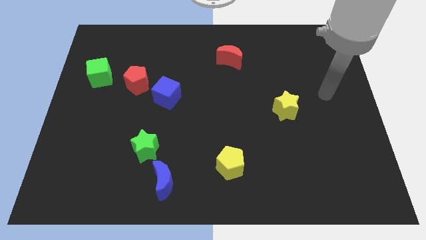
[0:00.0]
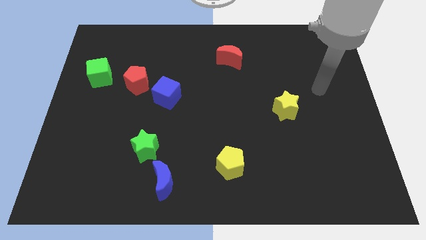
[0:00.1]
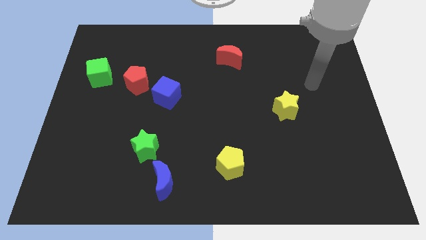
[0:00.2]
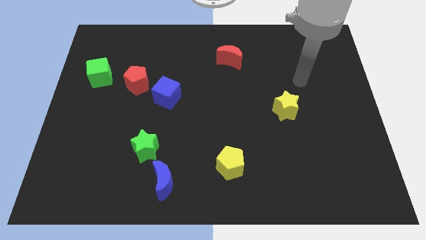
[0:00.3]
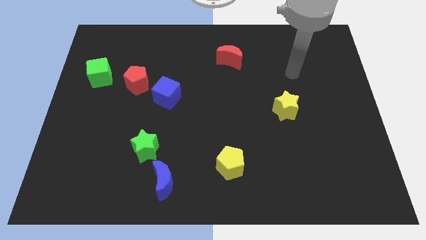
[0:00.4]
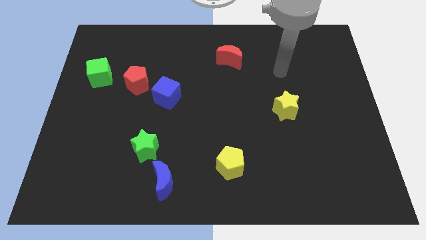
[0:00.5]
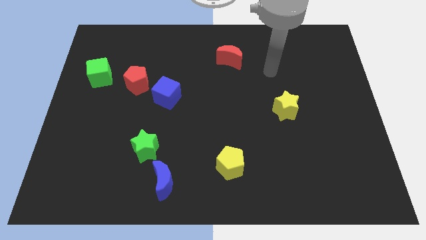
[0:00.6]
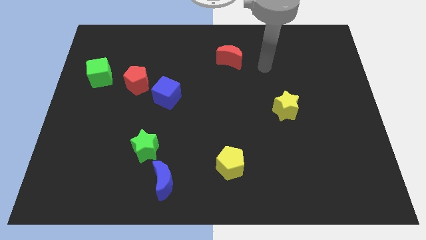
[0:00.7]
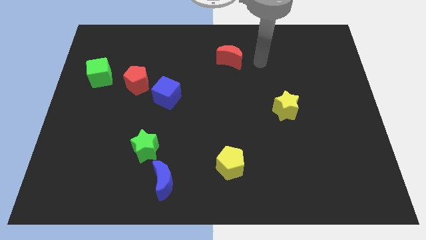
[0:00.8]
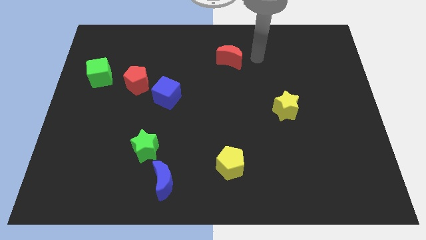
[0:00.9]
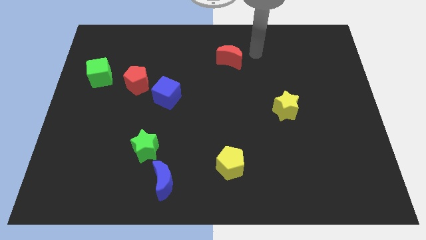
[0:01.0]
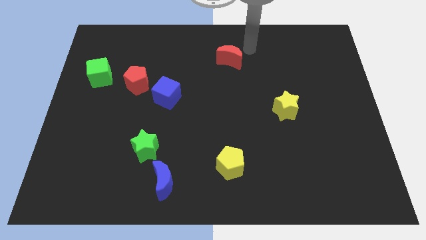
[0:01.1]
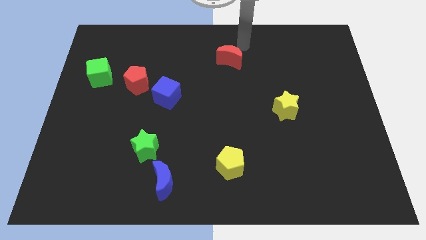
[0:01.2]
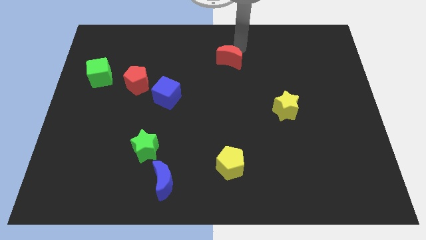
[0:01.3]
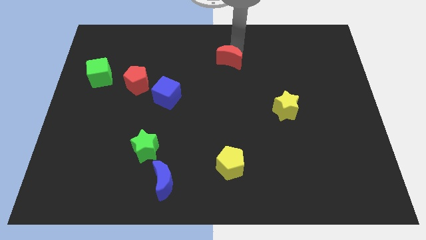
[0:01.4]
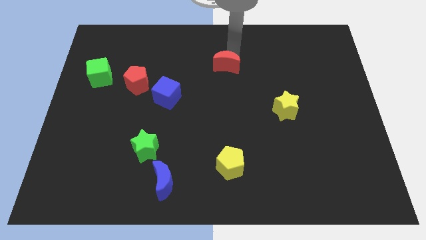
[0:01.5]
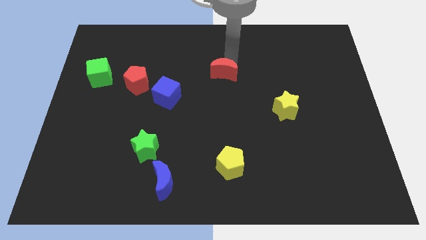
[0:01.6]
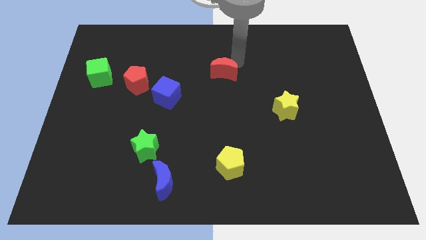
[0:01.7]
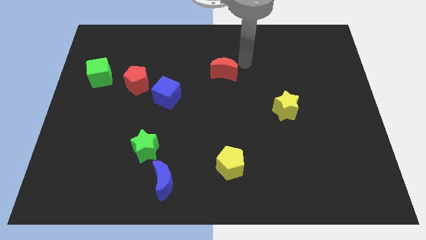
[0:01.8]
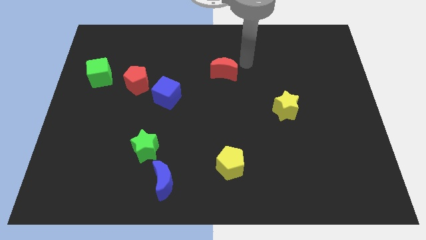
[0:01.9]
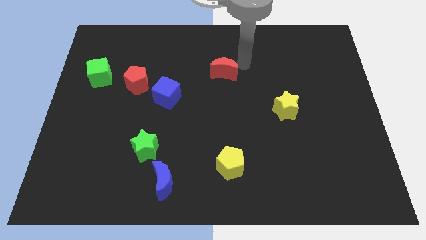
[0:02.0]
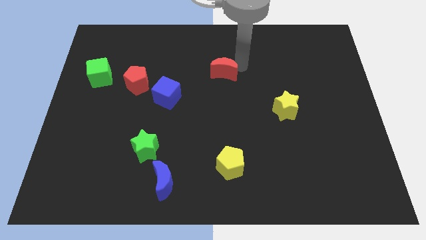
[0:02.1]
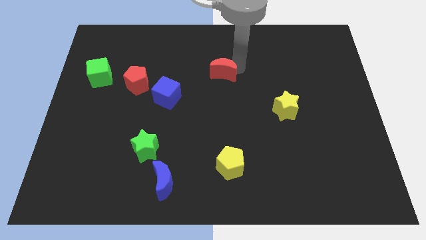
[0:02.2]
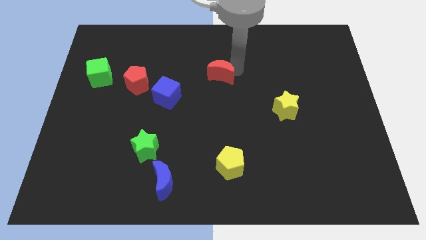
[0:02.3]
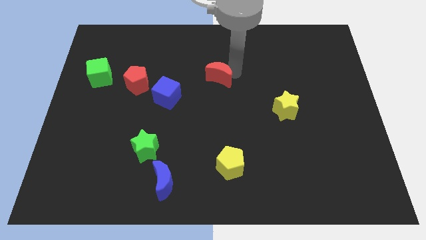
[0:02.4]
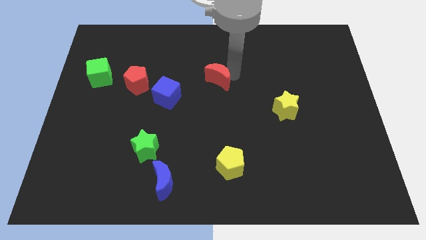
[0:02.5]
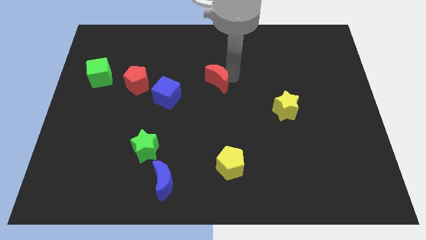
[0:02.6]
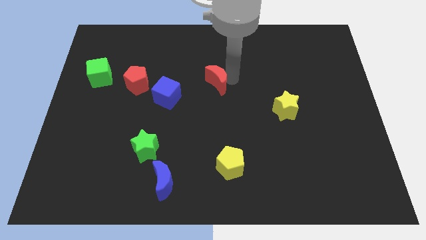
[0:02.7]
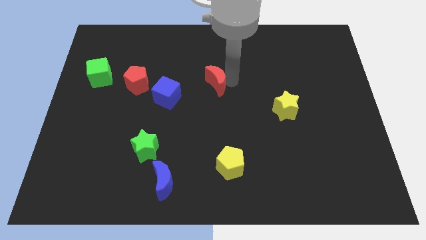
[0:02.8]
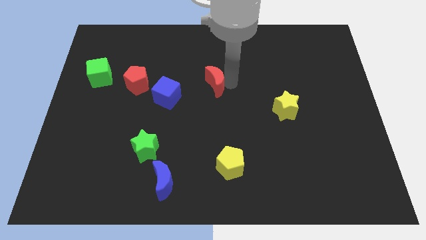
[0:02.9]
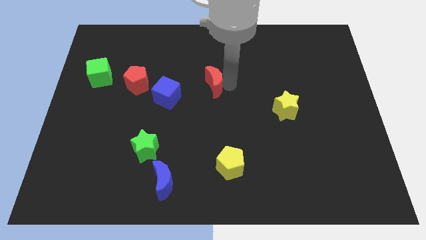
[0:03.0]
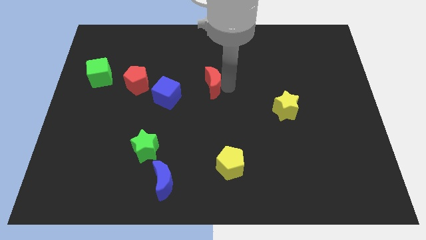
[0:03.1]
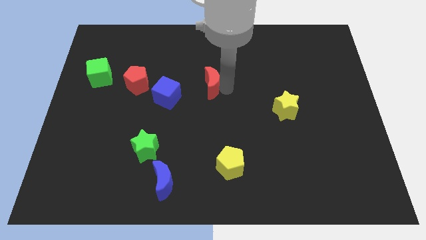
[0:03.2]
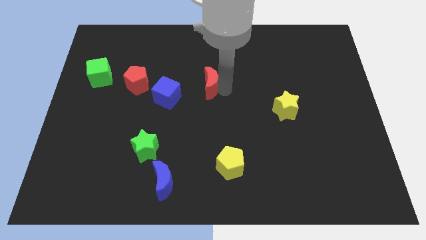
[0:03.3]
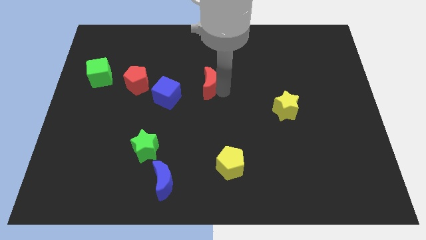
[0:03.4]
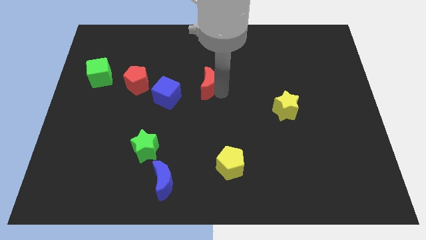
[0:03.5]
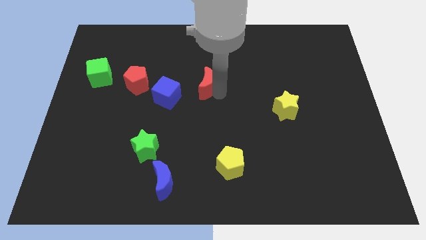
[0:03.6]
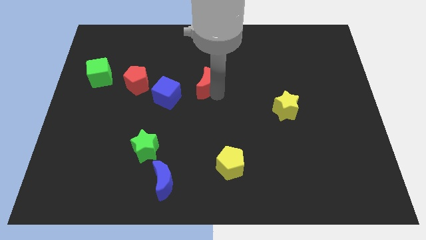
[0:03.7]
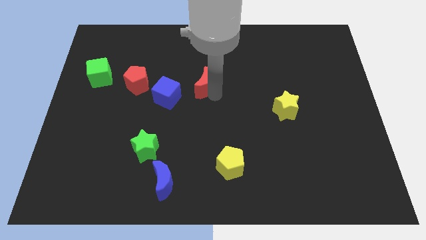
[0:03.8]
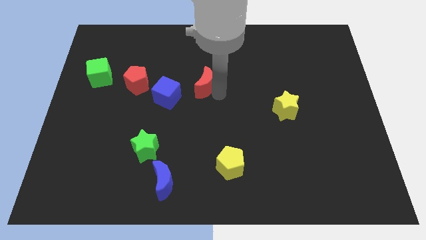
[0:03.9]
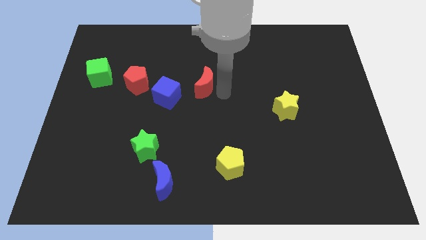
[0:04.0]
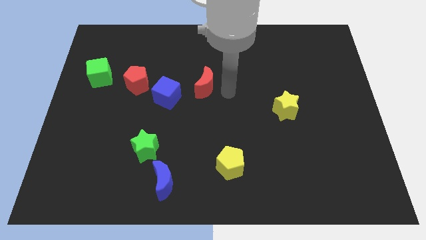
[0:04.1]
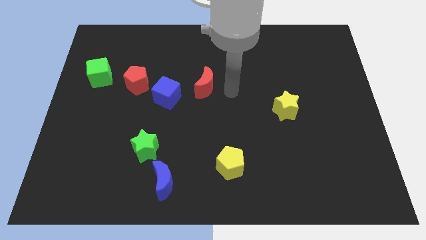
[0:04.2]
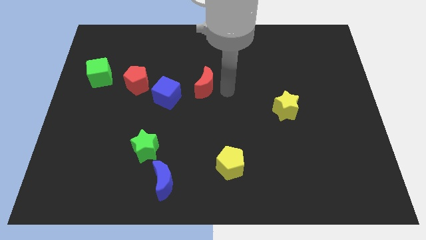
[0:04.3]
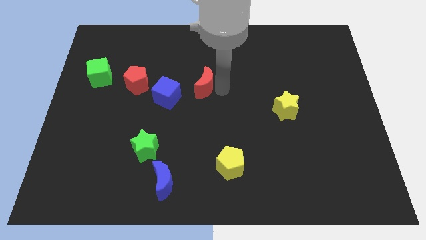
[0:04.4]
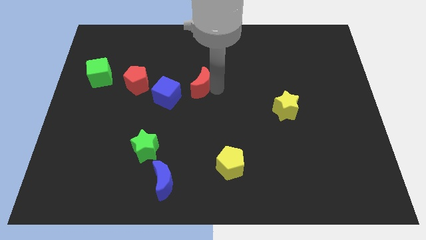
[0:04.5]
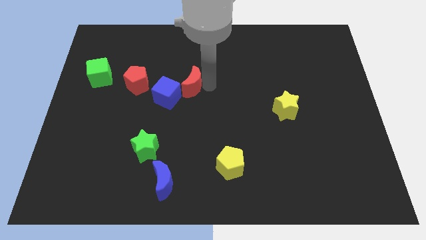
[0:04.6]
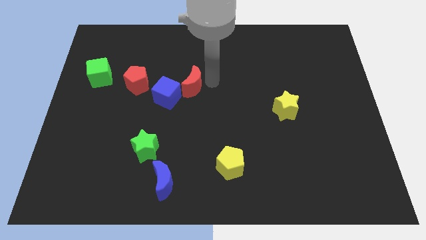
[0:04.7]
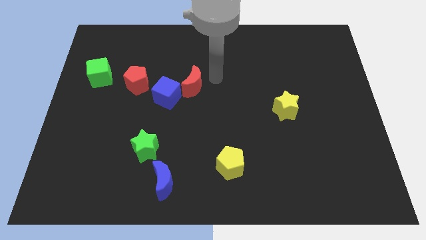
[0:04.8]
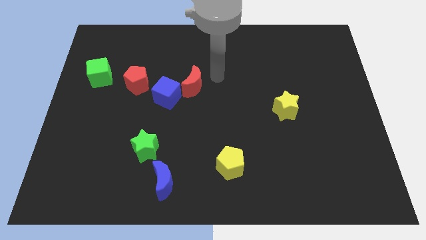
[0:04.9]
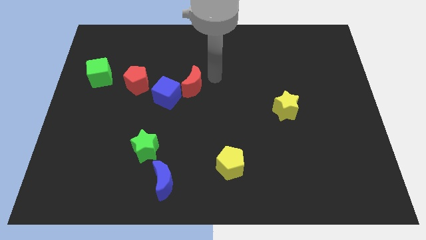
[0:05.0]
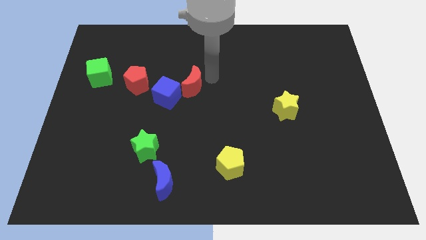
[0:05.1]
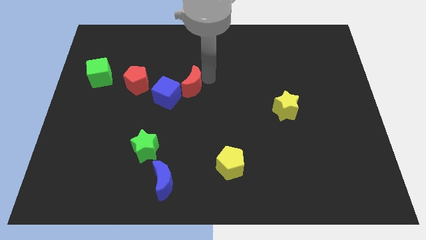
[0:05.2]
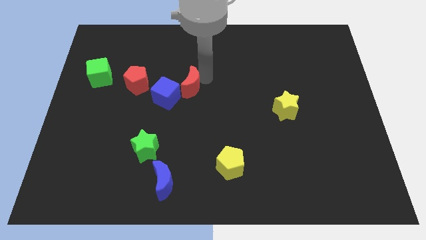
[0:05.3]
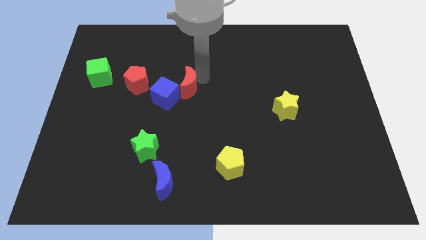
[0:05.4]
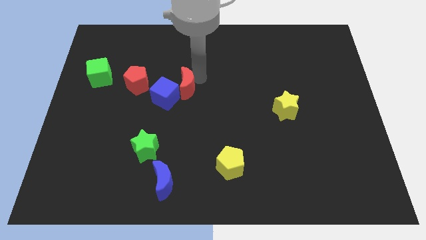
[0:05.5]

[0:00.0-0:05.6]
slide the red moon close to the blue cube

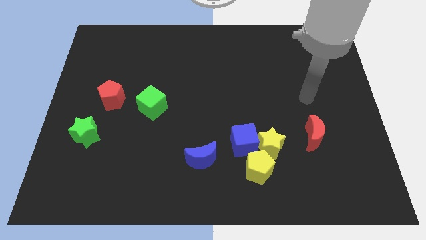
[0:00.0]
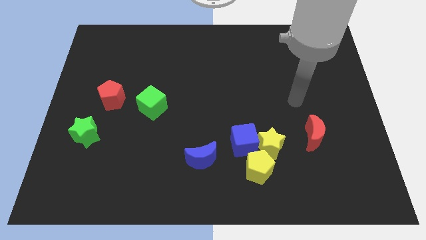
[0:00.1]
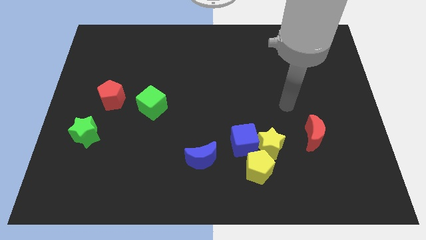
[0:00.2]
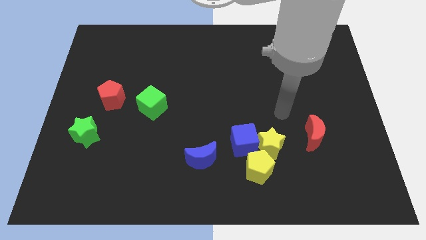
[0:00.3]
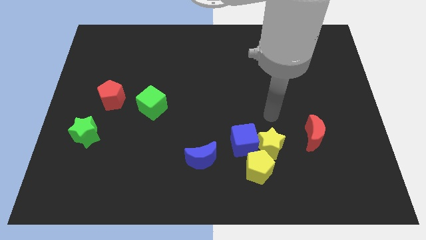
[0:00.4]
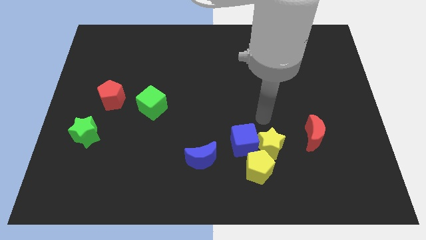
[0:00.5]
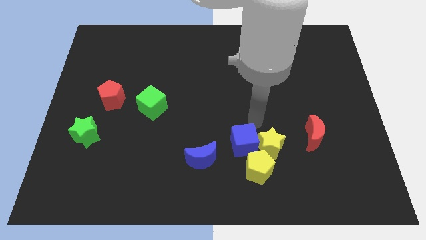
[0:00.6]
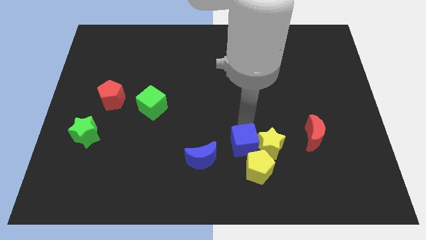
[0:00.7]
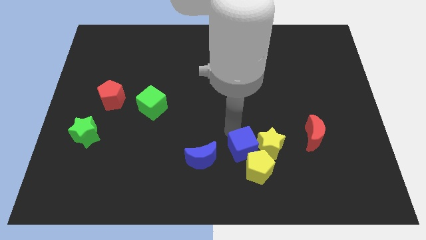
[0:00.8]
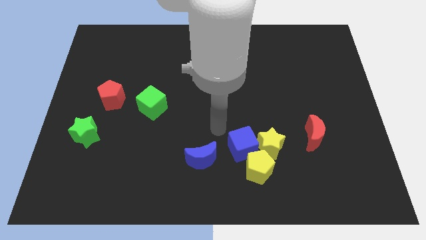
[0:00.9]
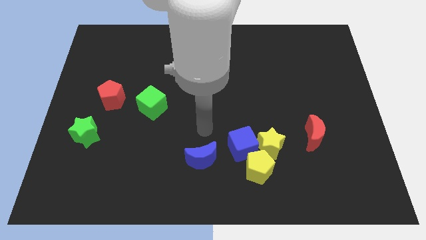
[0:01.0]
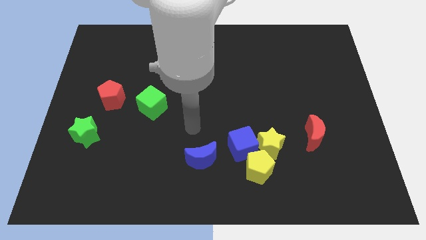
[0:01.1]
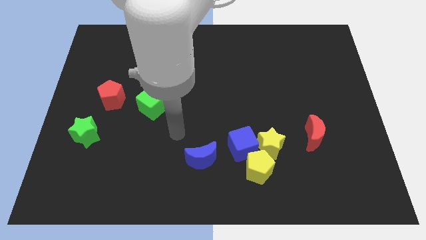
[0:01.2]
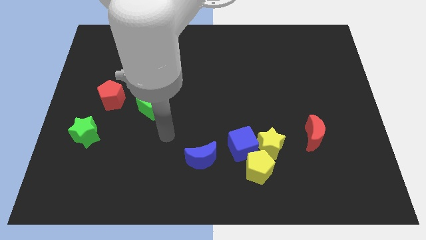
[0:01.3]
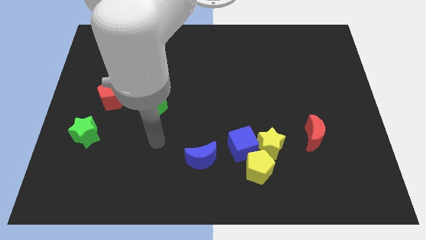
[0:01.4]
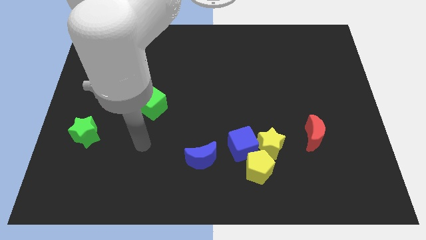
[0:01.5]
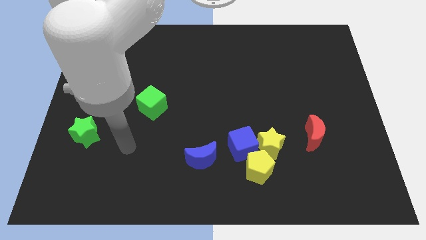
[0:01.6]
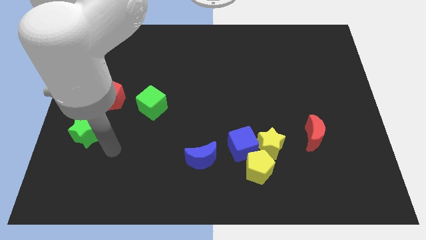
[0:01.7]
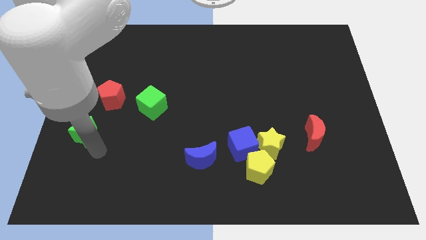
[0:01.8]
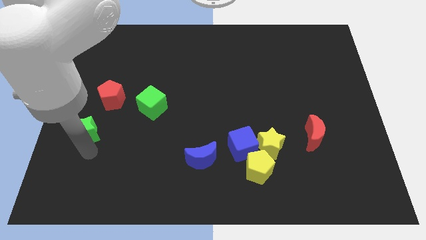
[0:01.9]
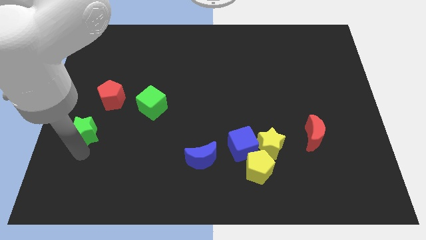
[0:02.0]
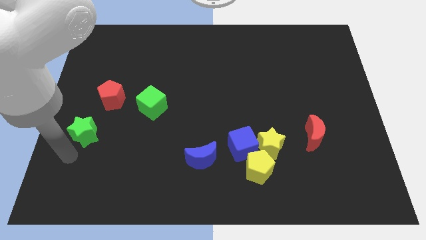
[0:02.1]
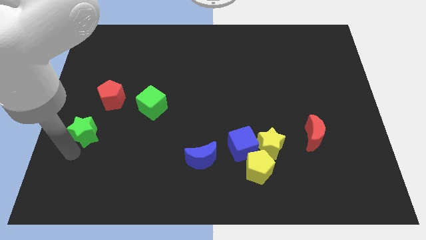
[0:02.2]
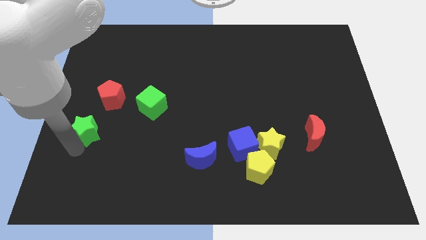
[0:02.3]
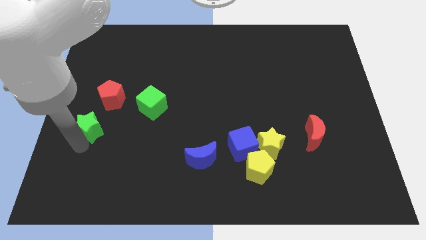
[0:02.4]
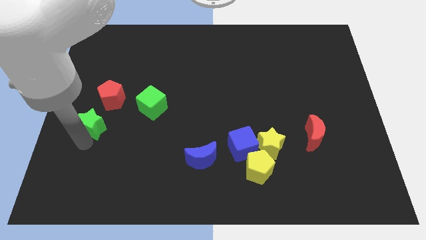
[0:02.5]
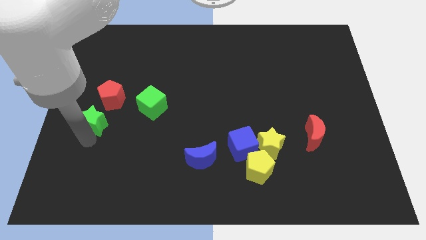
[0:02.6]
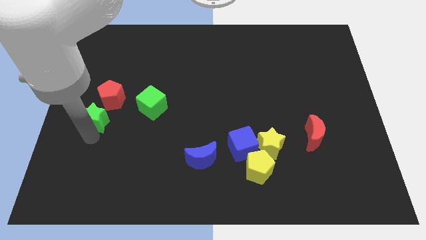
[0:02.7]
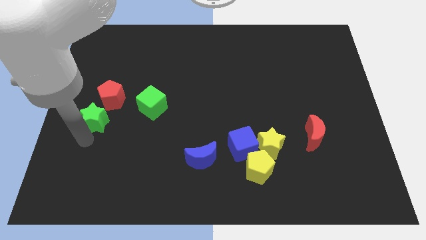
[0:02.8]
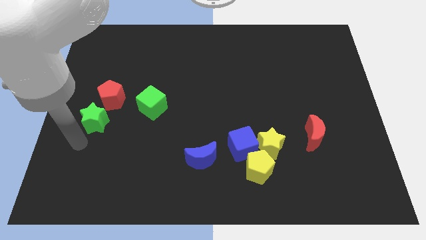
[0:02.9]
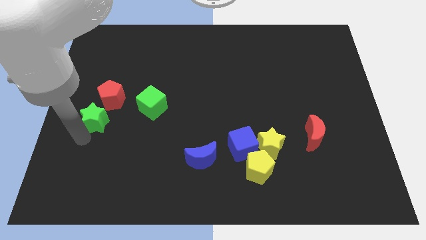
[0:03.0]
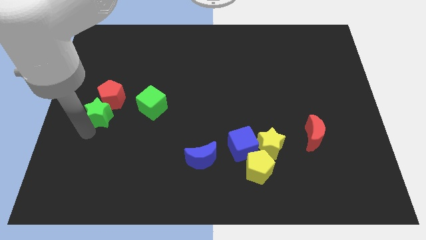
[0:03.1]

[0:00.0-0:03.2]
slide the green star next to the red pentagon
